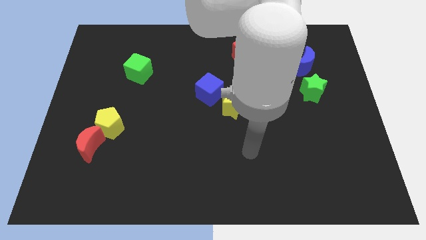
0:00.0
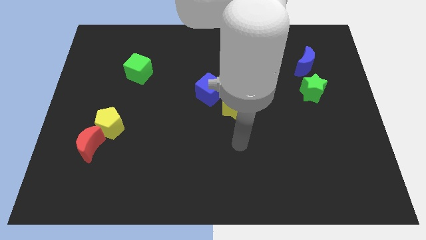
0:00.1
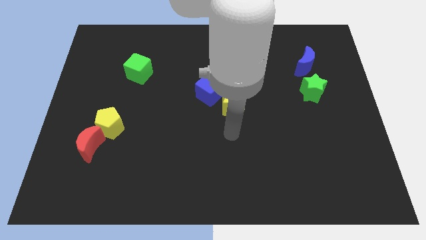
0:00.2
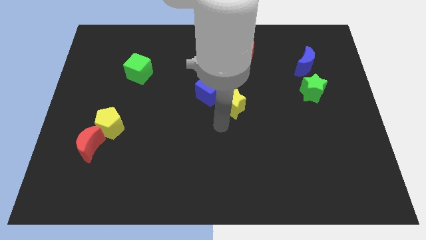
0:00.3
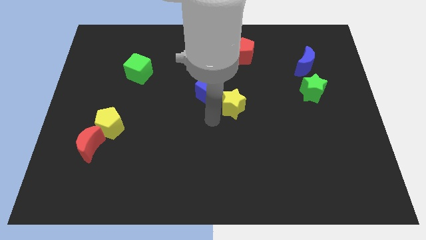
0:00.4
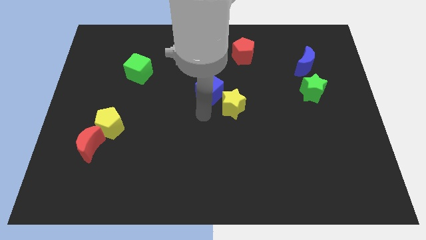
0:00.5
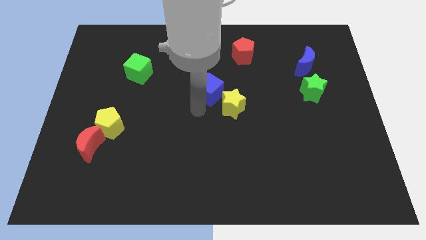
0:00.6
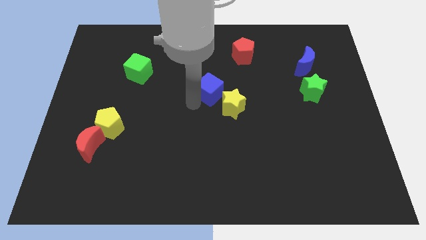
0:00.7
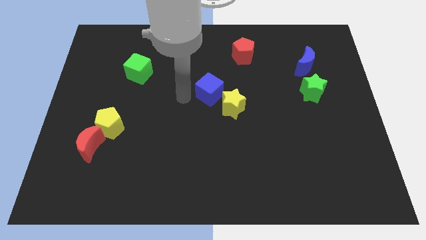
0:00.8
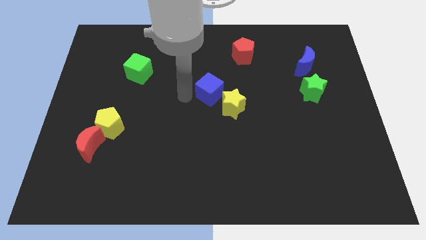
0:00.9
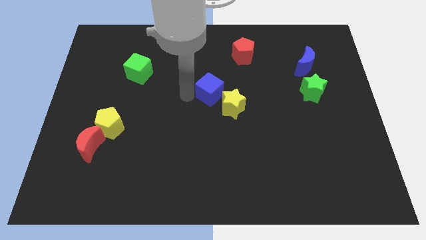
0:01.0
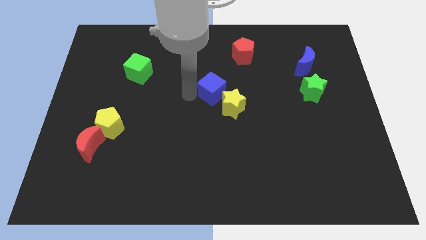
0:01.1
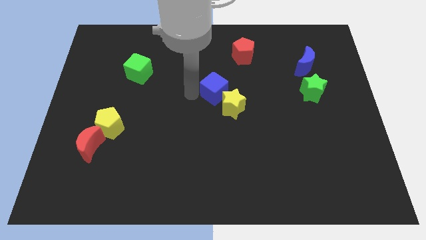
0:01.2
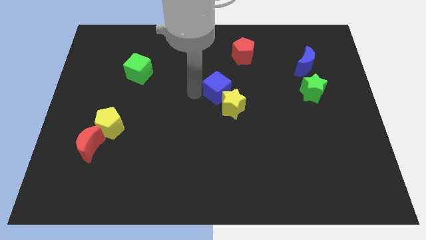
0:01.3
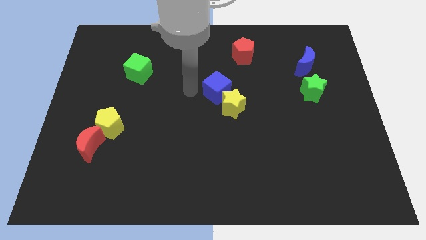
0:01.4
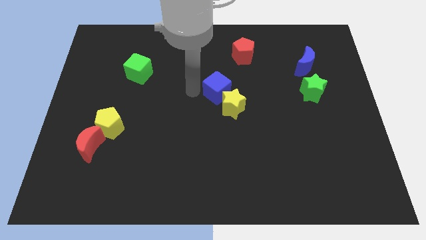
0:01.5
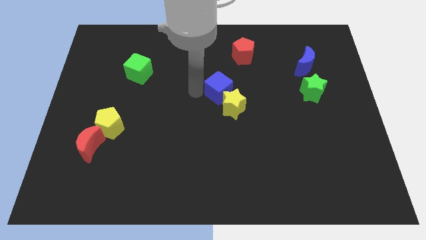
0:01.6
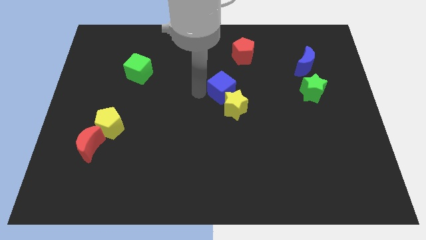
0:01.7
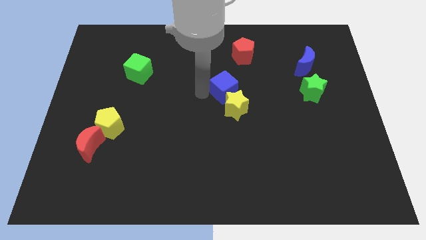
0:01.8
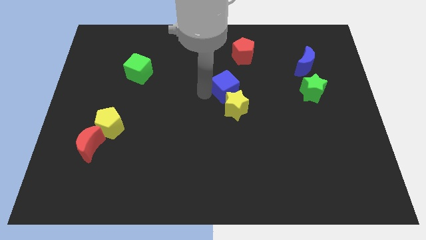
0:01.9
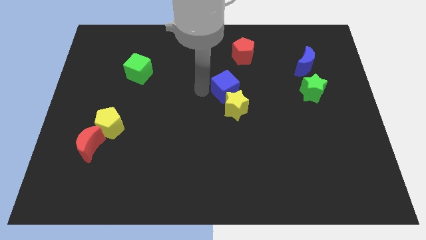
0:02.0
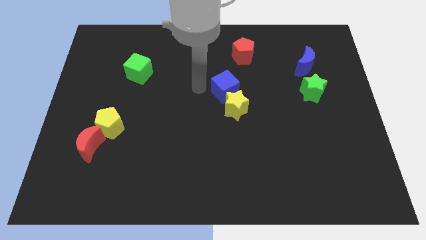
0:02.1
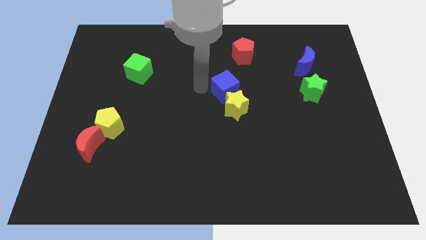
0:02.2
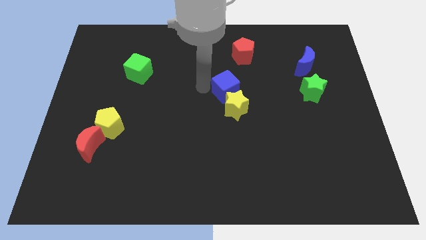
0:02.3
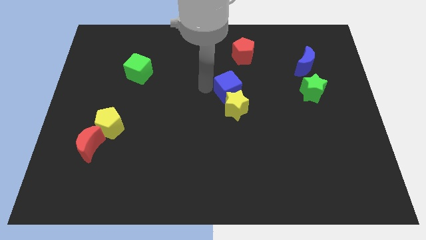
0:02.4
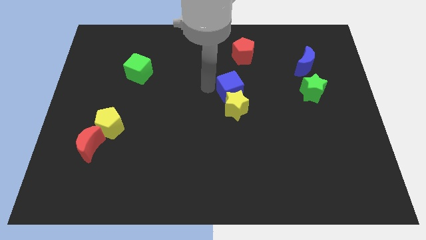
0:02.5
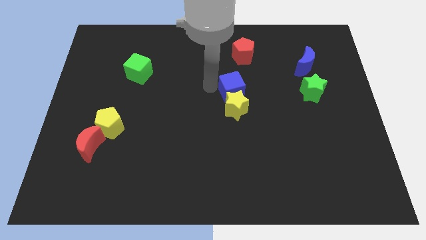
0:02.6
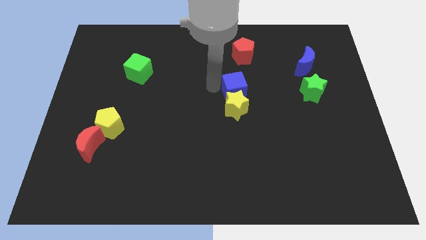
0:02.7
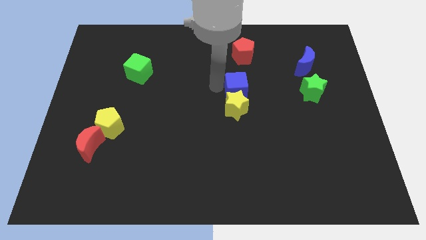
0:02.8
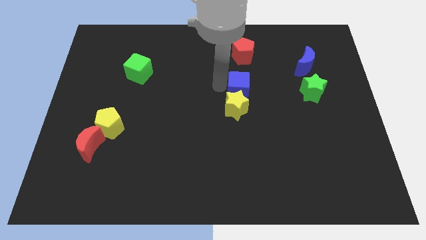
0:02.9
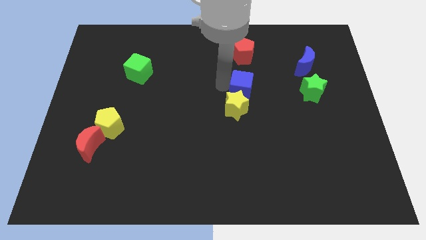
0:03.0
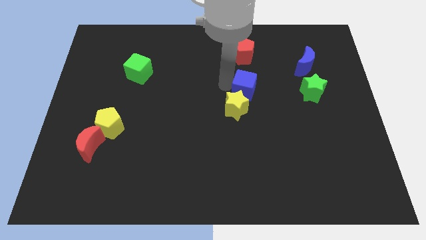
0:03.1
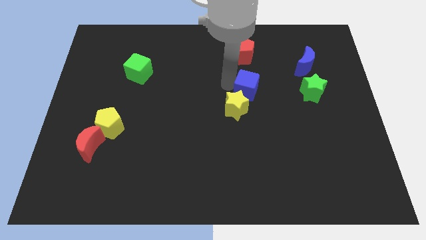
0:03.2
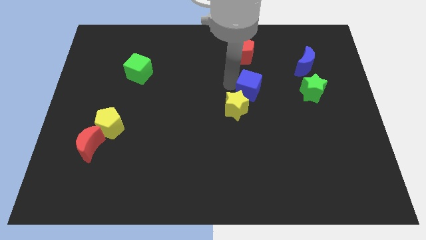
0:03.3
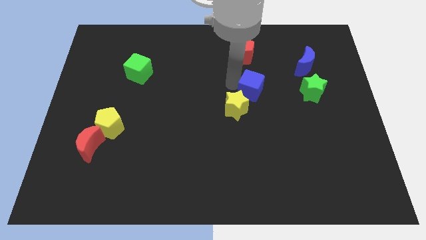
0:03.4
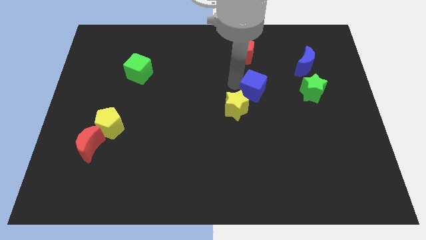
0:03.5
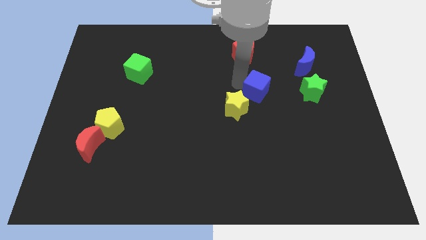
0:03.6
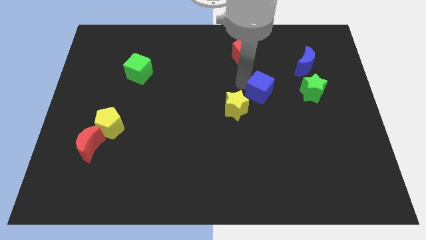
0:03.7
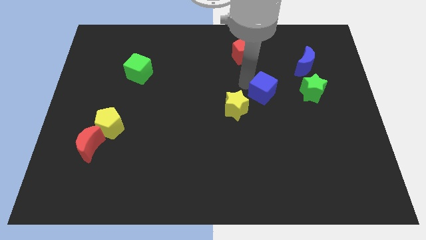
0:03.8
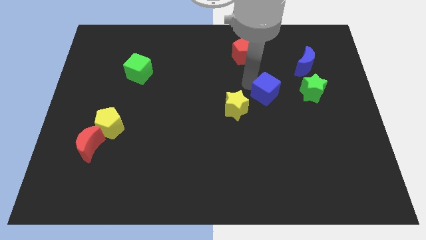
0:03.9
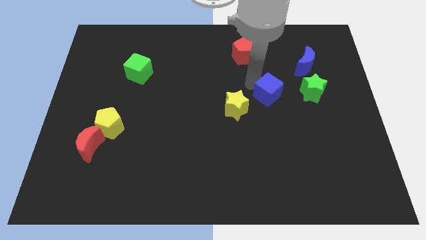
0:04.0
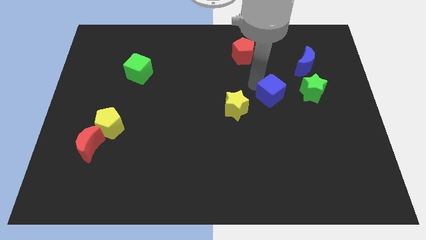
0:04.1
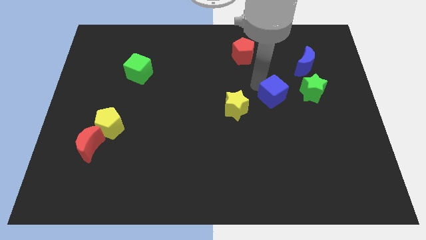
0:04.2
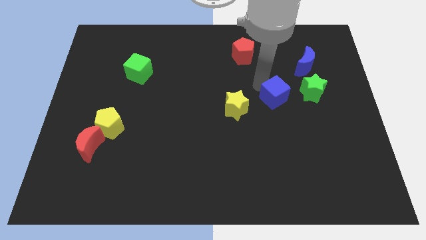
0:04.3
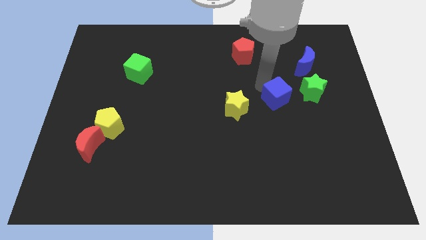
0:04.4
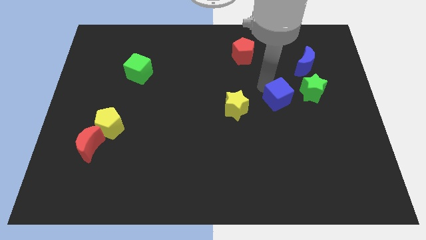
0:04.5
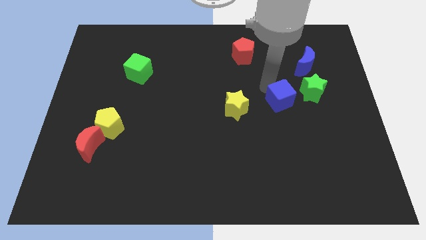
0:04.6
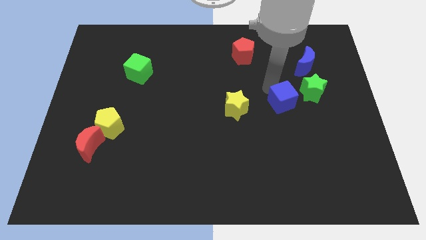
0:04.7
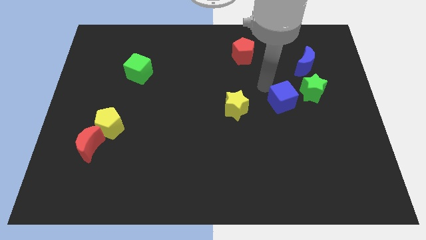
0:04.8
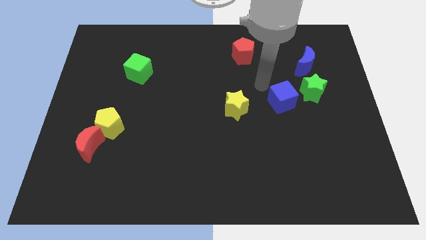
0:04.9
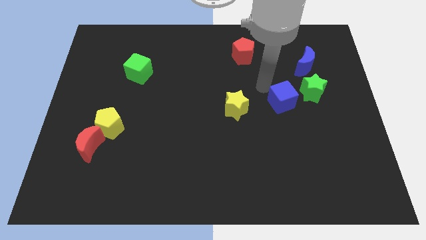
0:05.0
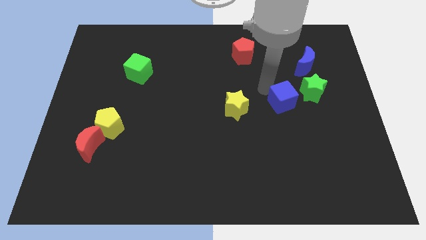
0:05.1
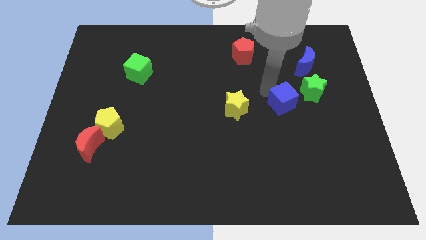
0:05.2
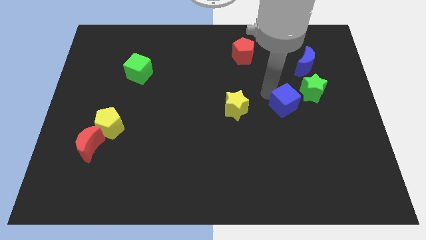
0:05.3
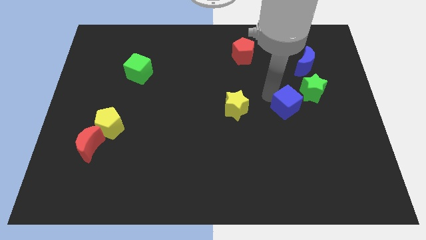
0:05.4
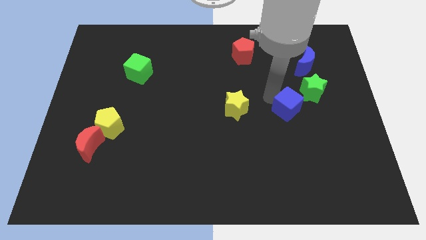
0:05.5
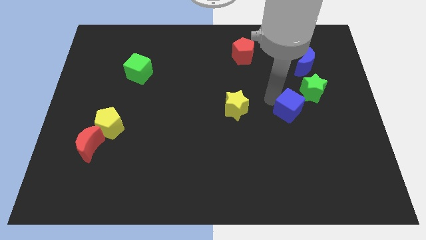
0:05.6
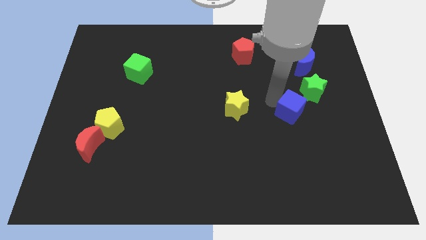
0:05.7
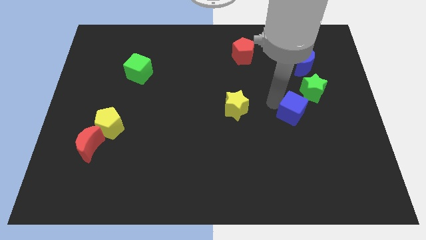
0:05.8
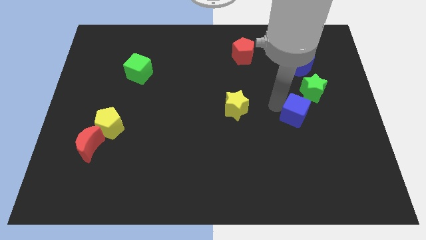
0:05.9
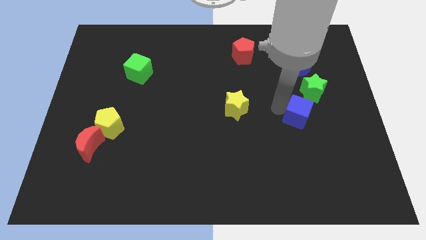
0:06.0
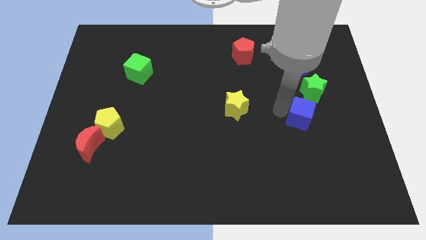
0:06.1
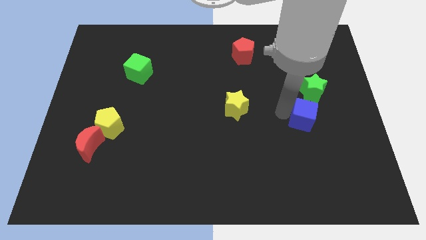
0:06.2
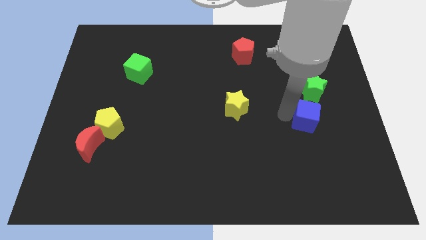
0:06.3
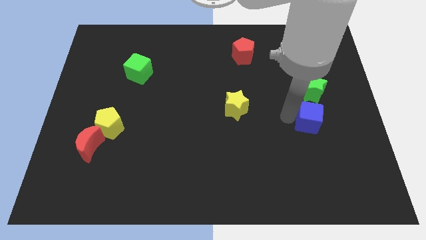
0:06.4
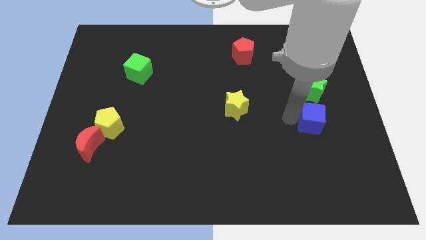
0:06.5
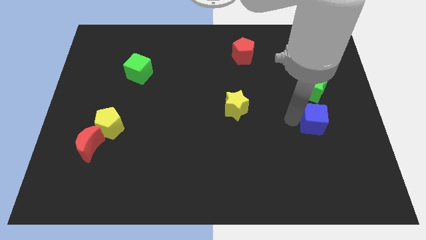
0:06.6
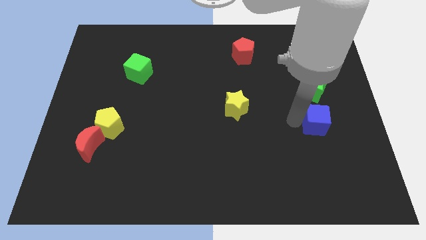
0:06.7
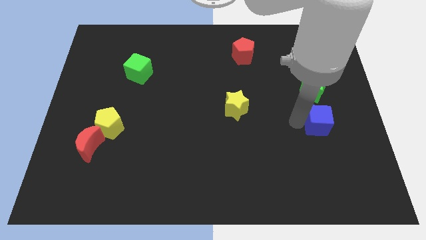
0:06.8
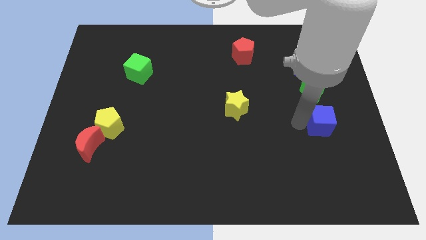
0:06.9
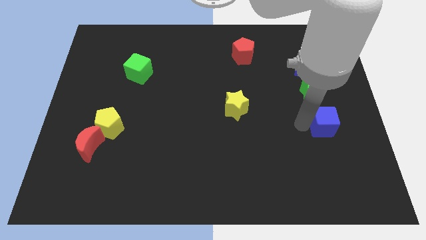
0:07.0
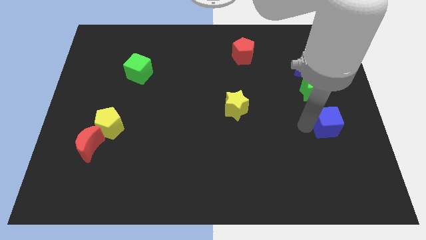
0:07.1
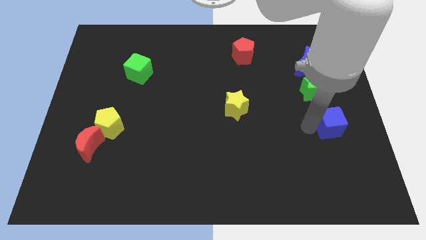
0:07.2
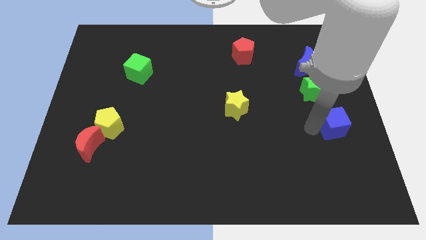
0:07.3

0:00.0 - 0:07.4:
push the blue cube to the center right
